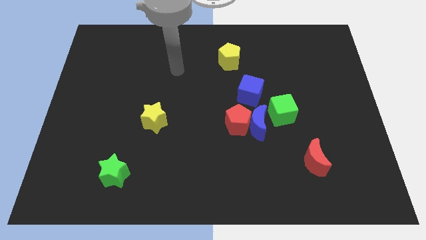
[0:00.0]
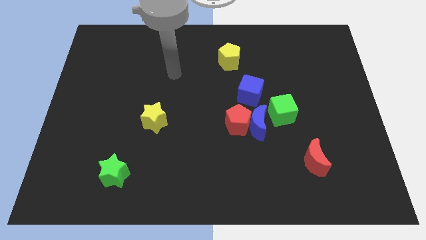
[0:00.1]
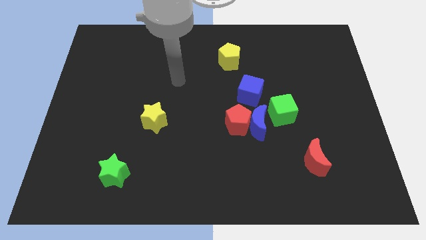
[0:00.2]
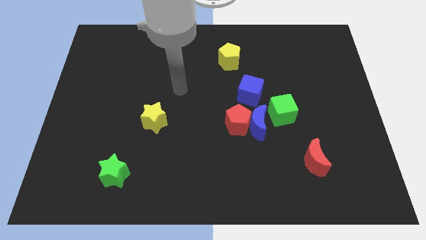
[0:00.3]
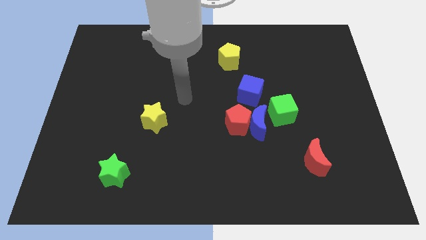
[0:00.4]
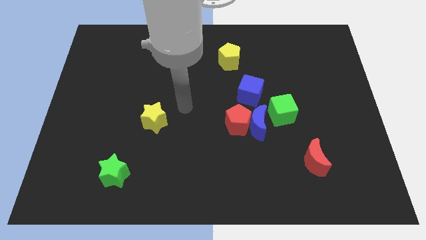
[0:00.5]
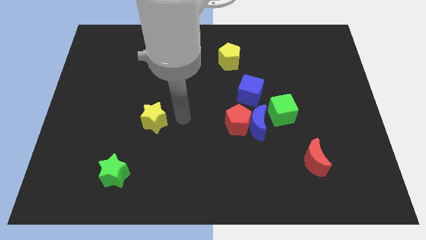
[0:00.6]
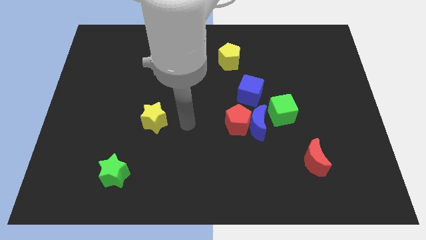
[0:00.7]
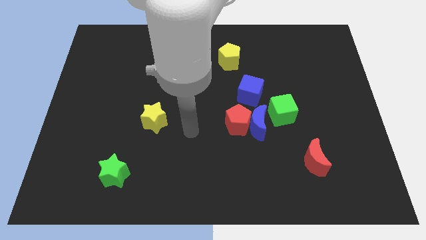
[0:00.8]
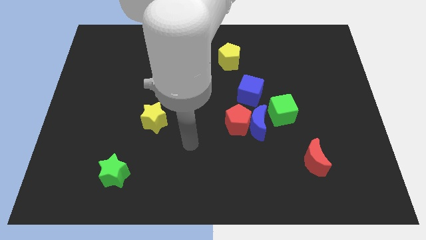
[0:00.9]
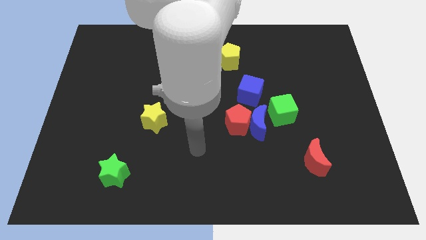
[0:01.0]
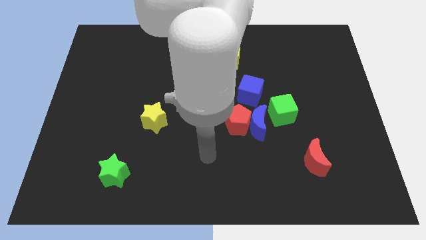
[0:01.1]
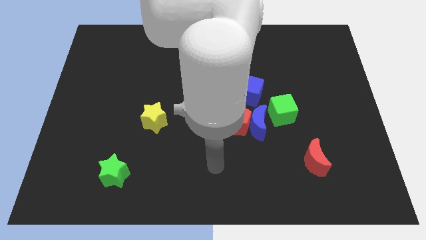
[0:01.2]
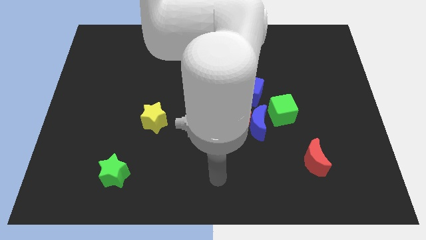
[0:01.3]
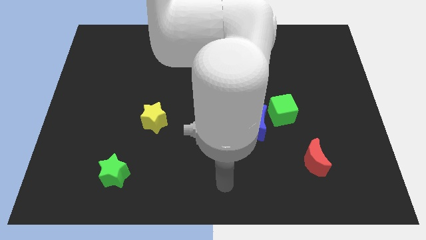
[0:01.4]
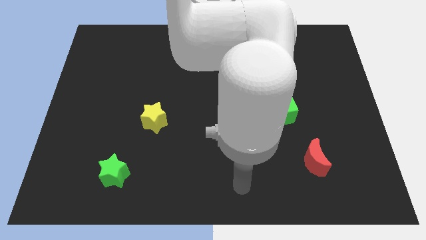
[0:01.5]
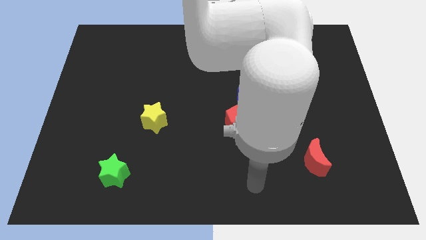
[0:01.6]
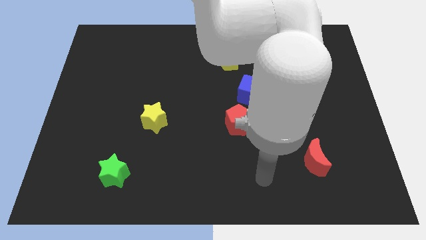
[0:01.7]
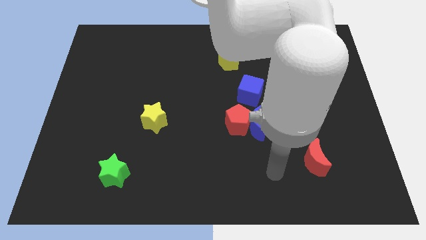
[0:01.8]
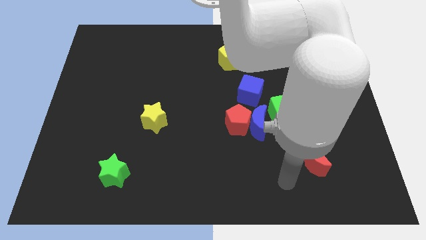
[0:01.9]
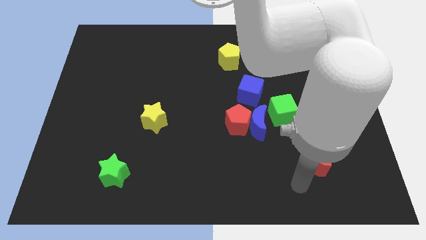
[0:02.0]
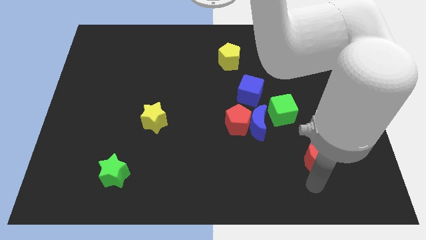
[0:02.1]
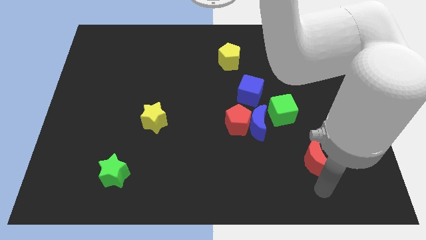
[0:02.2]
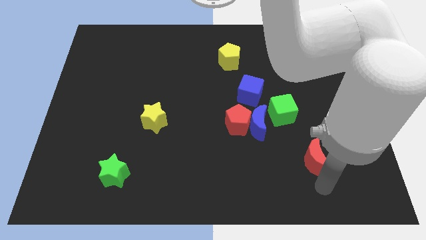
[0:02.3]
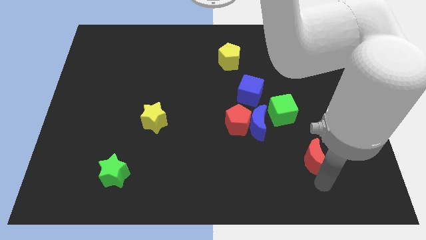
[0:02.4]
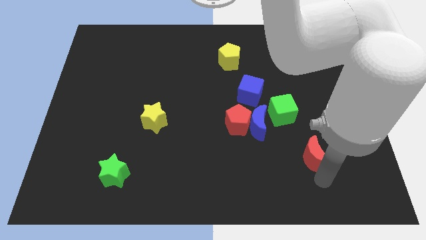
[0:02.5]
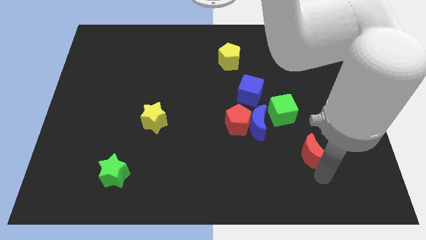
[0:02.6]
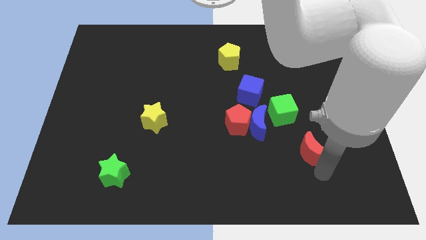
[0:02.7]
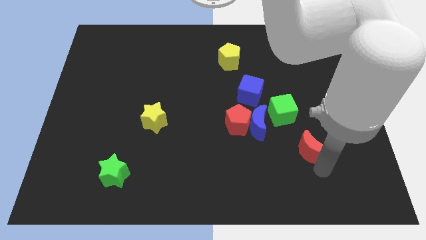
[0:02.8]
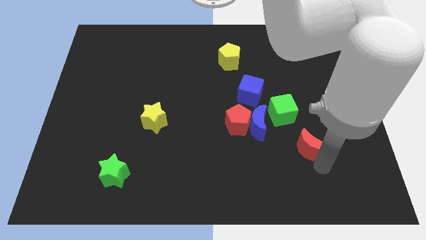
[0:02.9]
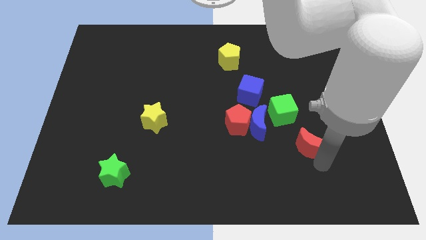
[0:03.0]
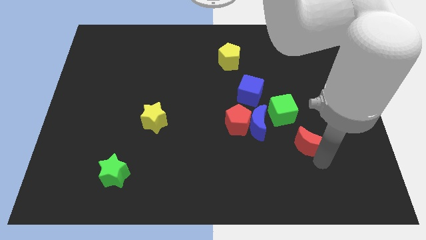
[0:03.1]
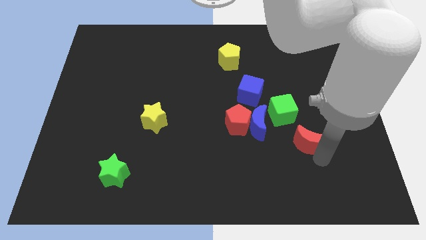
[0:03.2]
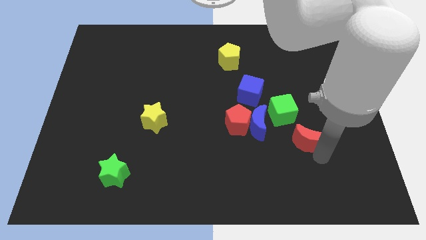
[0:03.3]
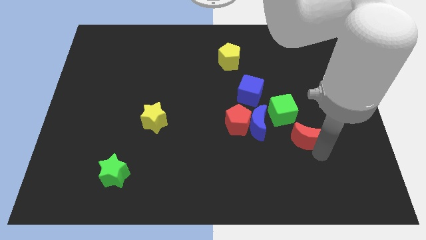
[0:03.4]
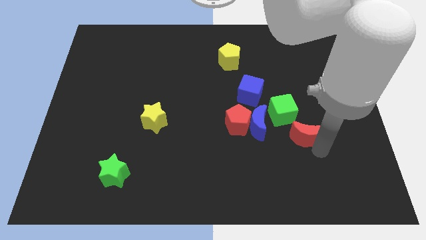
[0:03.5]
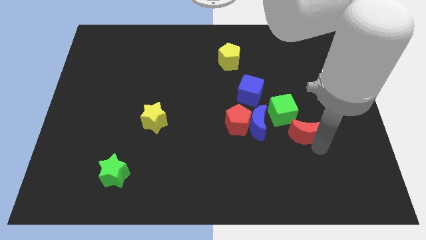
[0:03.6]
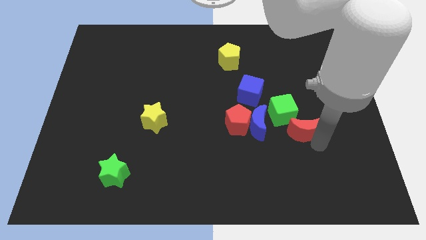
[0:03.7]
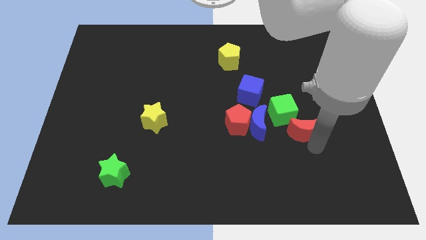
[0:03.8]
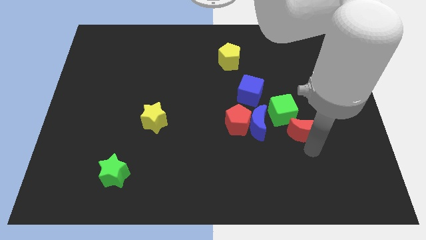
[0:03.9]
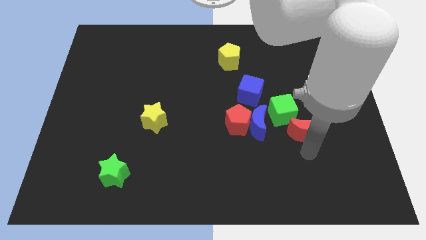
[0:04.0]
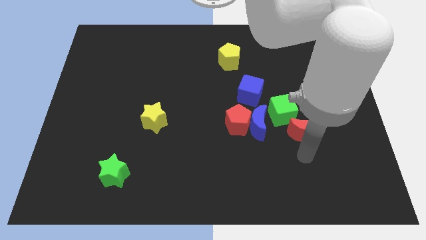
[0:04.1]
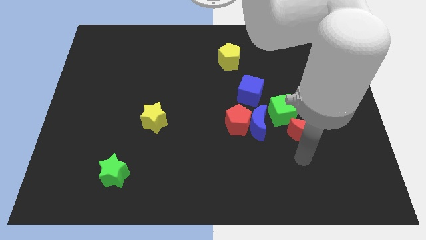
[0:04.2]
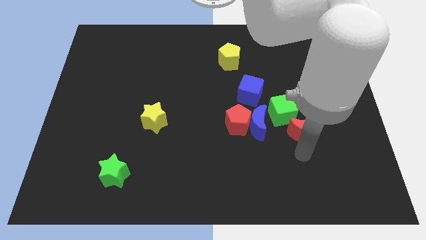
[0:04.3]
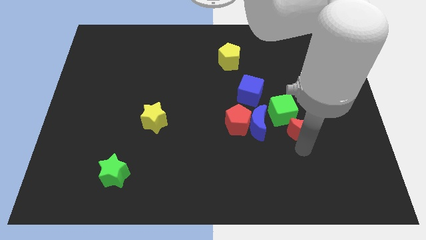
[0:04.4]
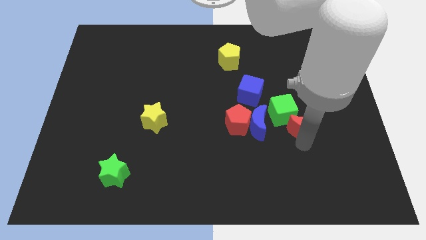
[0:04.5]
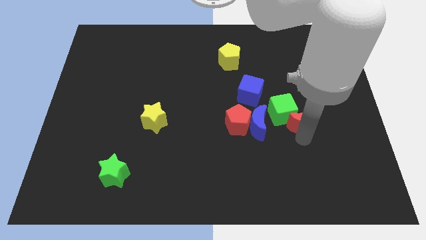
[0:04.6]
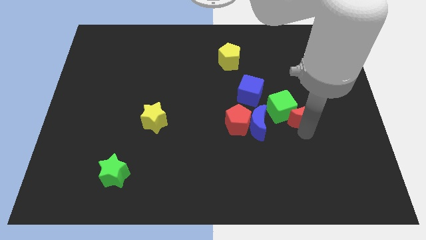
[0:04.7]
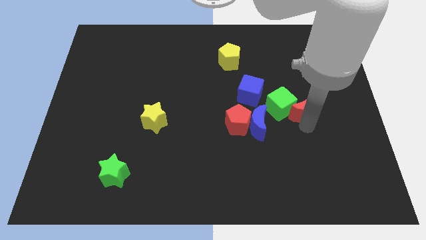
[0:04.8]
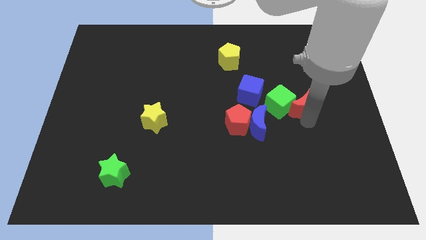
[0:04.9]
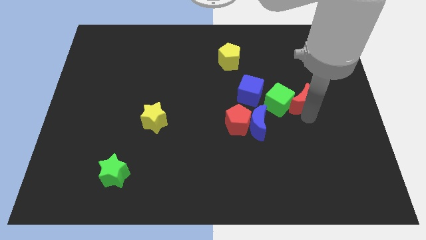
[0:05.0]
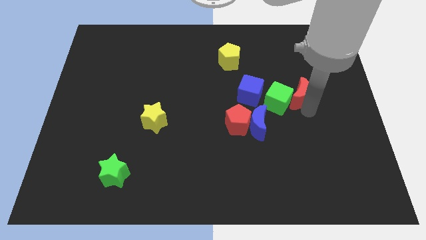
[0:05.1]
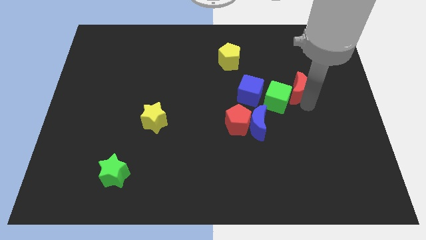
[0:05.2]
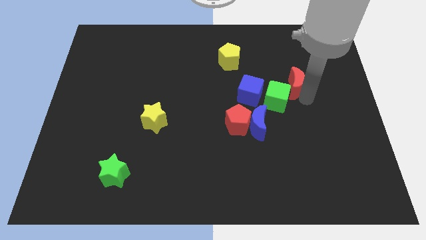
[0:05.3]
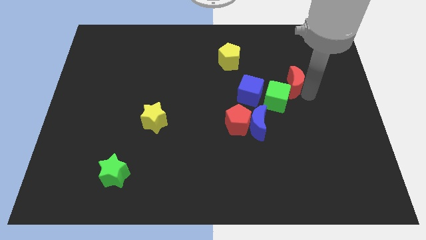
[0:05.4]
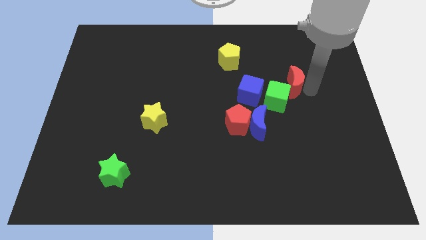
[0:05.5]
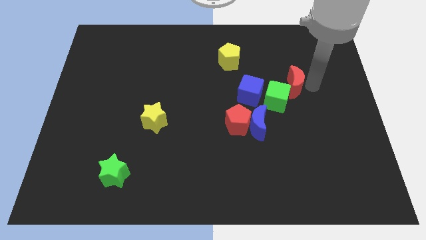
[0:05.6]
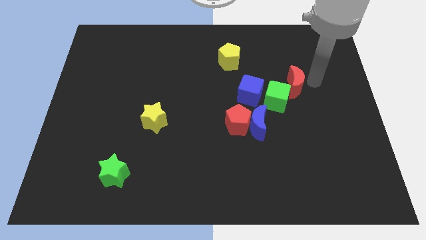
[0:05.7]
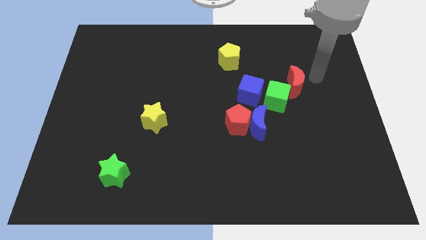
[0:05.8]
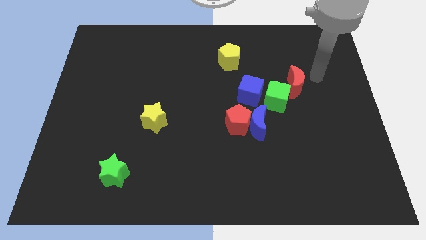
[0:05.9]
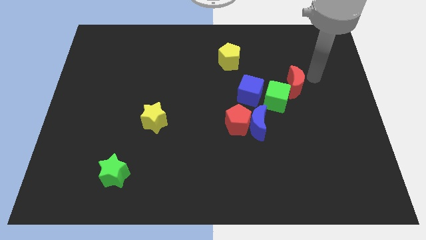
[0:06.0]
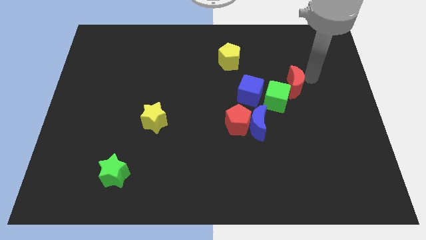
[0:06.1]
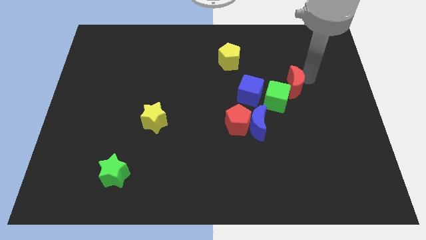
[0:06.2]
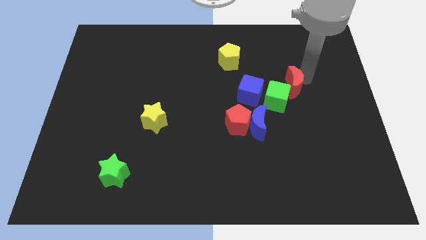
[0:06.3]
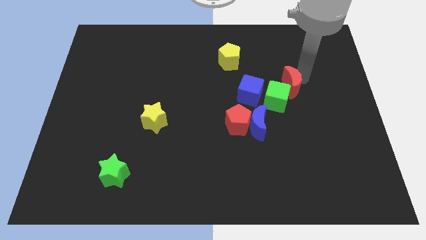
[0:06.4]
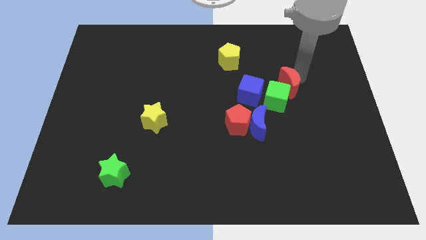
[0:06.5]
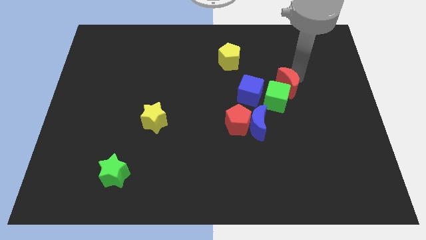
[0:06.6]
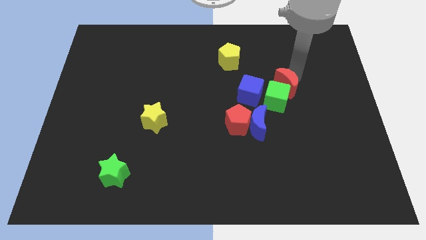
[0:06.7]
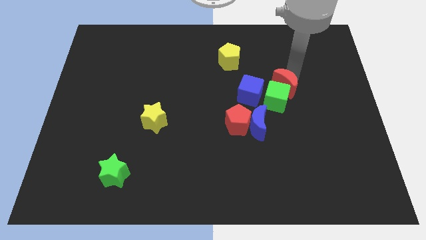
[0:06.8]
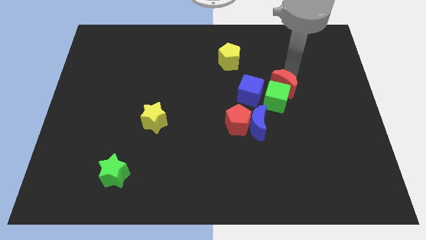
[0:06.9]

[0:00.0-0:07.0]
push the red moon somewhat upwards and to the left

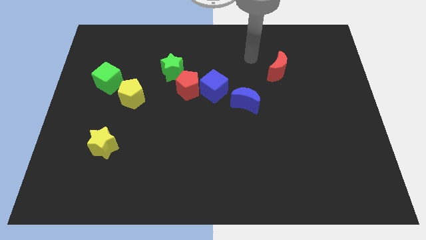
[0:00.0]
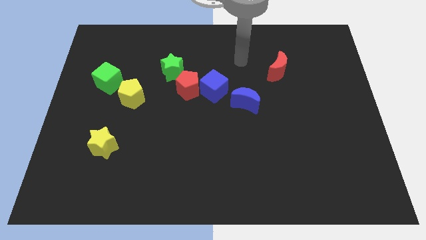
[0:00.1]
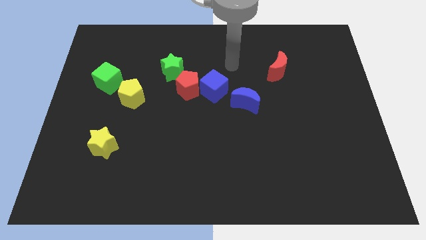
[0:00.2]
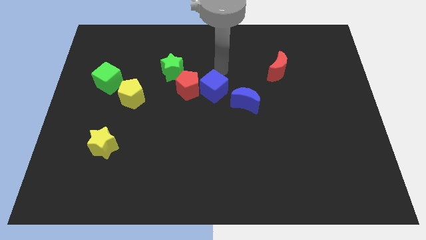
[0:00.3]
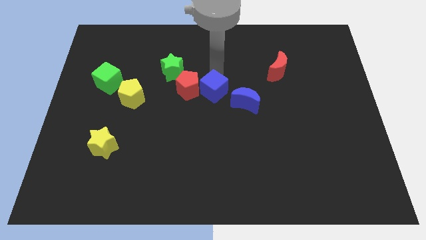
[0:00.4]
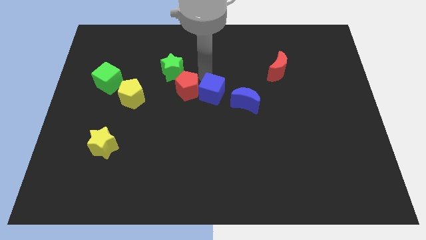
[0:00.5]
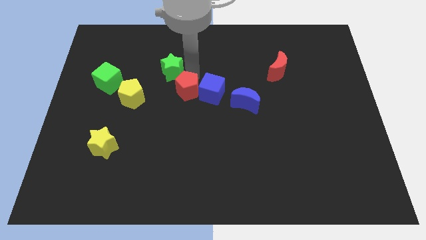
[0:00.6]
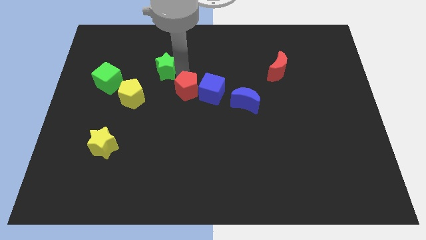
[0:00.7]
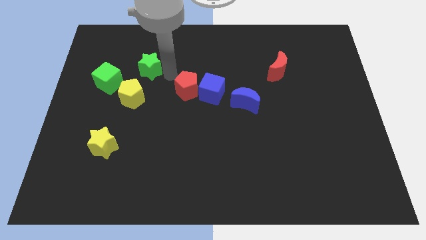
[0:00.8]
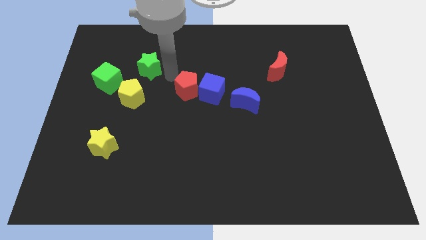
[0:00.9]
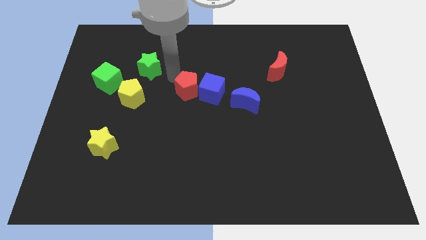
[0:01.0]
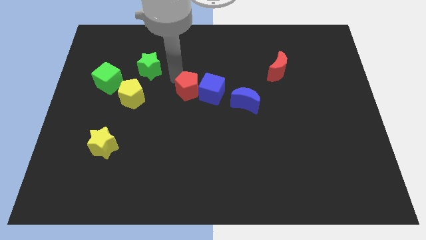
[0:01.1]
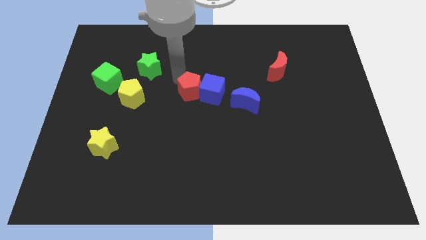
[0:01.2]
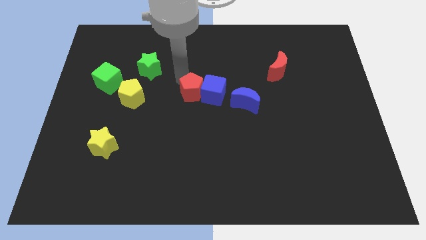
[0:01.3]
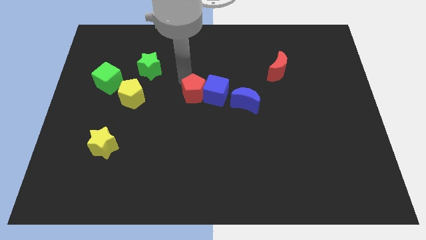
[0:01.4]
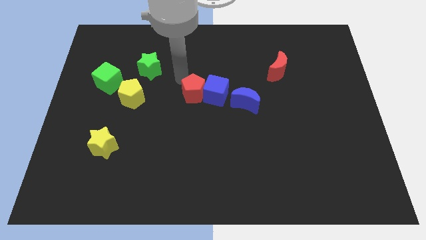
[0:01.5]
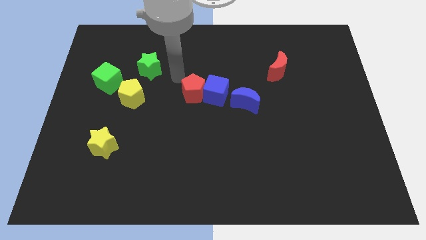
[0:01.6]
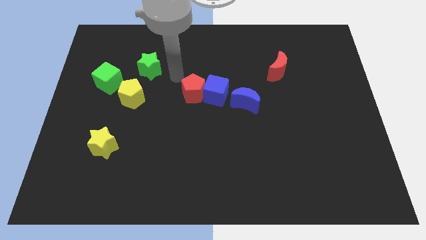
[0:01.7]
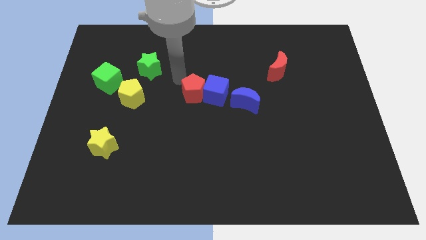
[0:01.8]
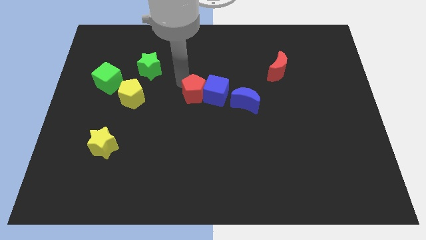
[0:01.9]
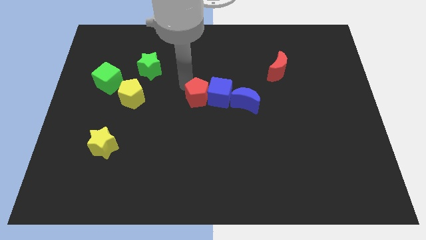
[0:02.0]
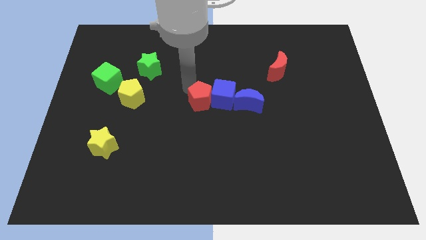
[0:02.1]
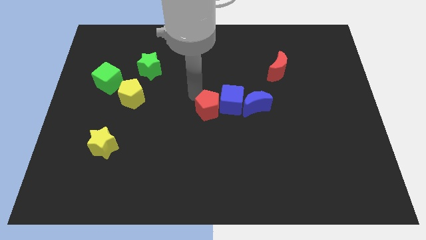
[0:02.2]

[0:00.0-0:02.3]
slide the red pentagon a bit down and then to the right
